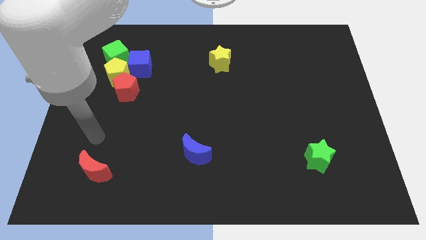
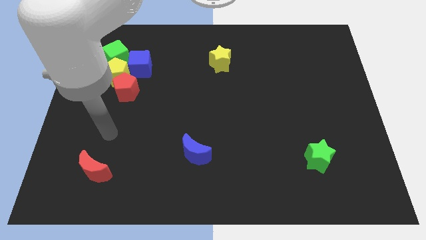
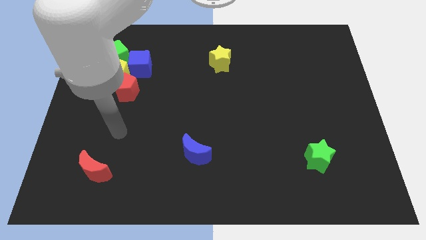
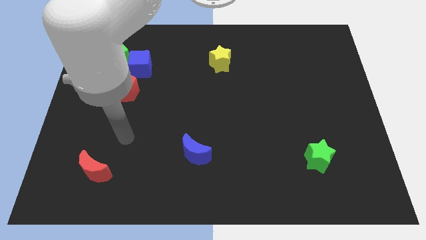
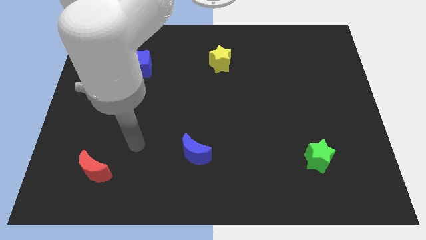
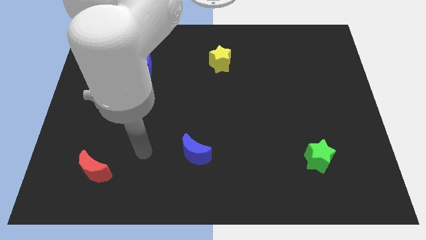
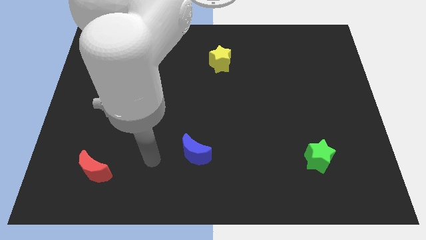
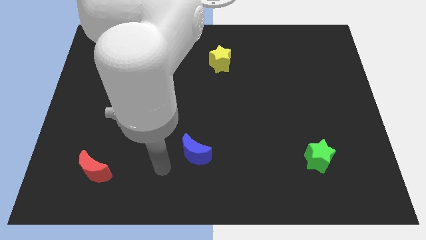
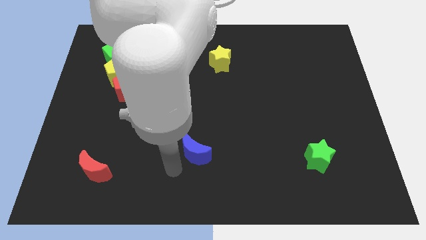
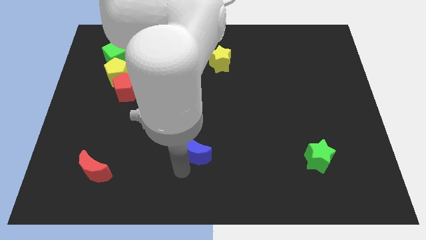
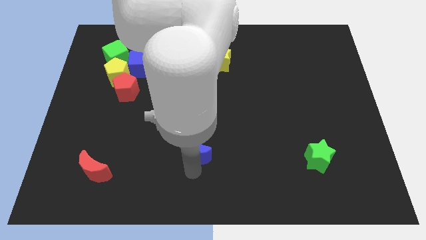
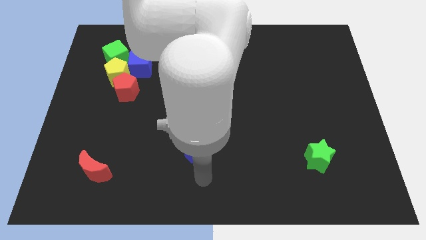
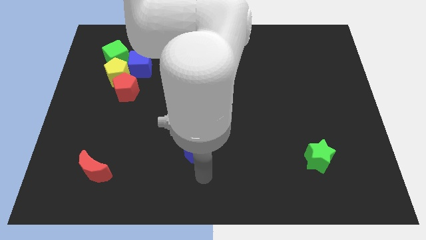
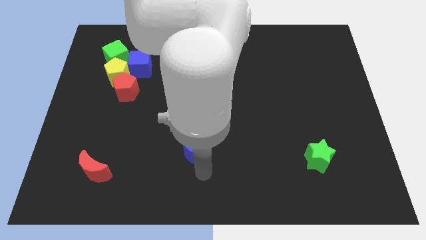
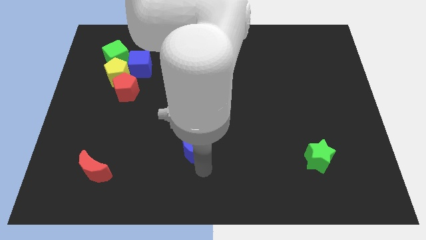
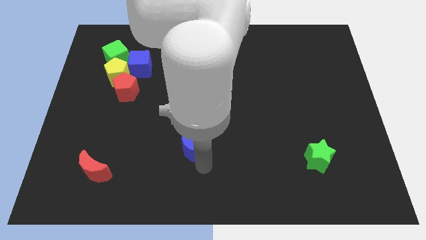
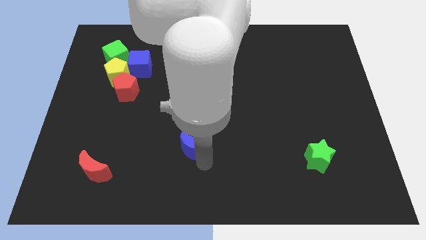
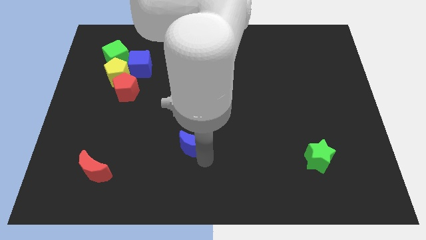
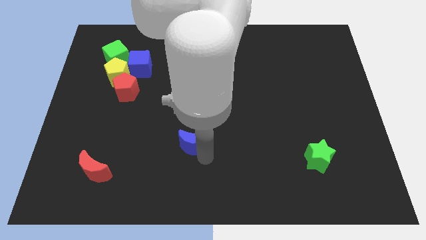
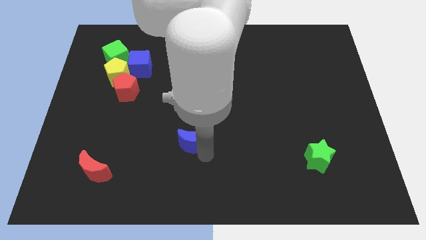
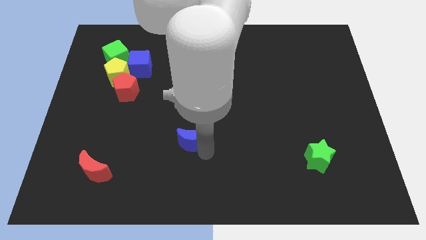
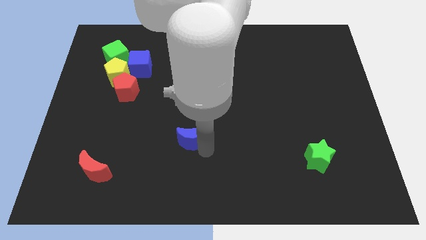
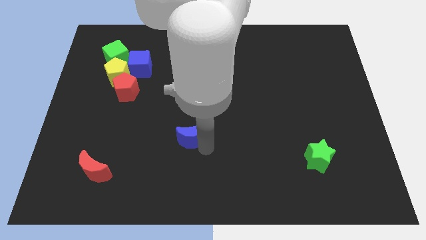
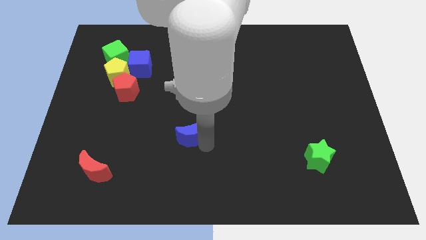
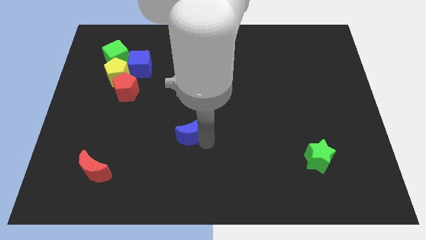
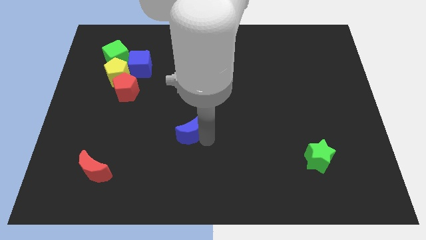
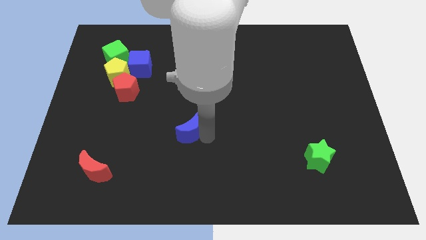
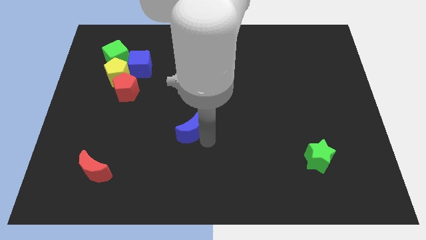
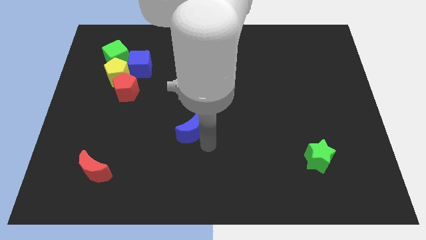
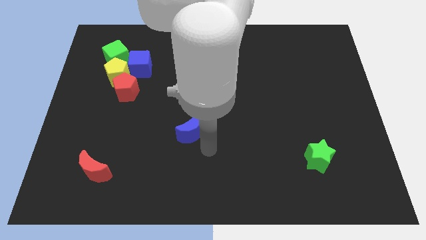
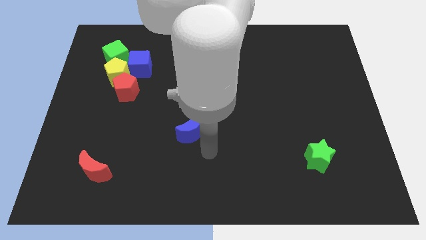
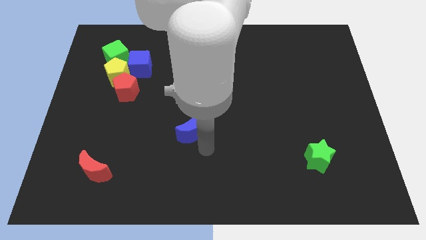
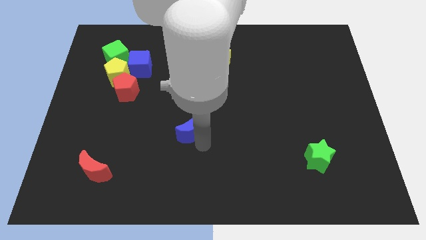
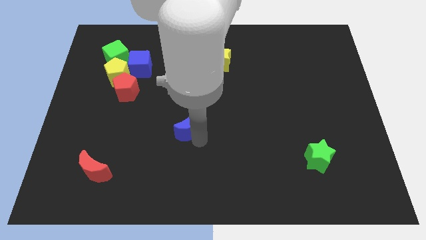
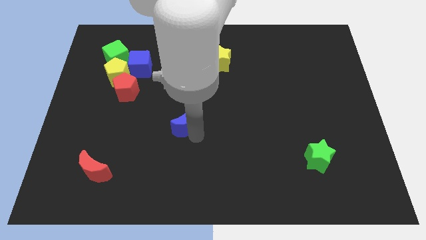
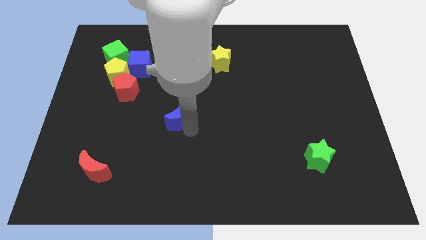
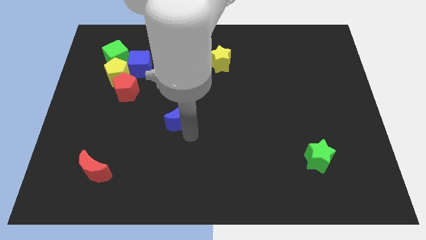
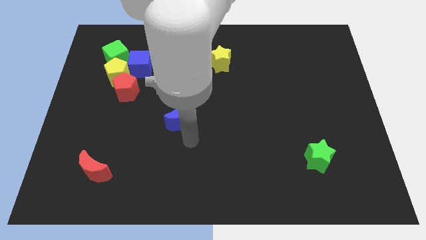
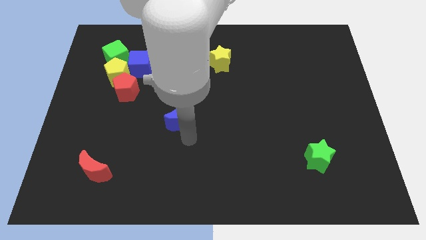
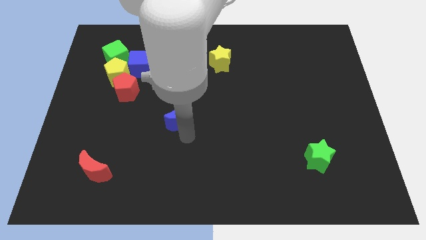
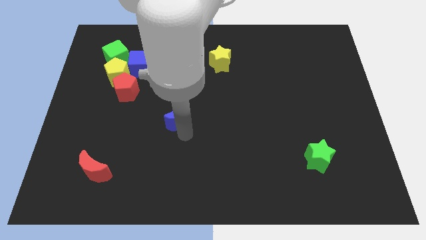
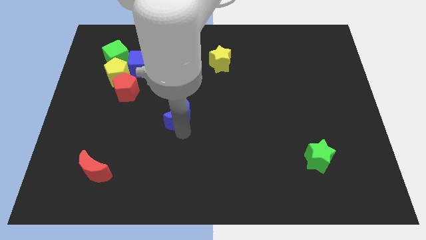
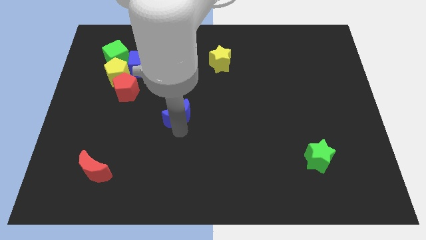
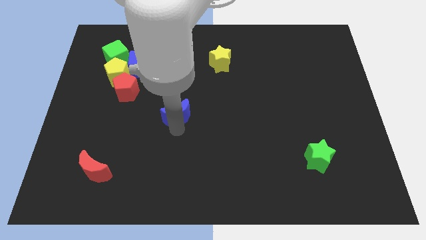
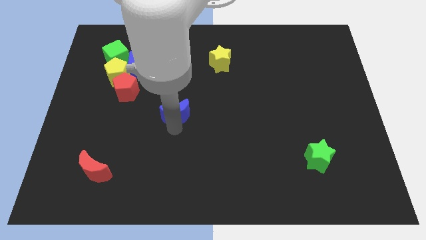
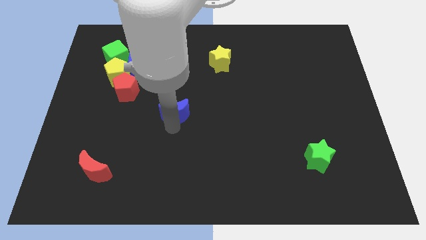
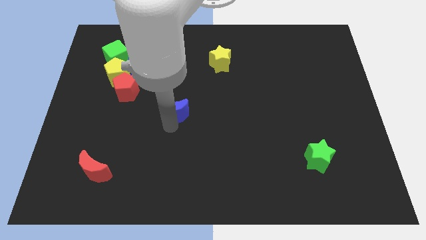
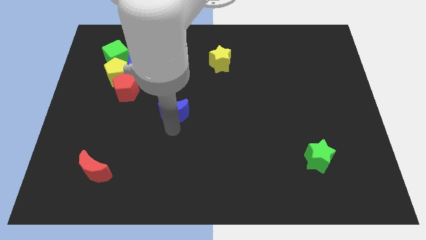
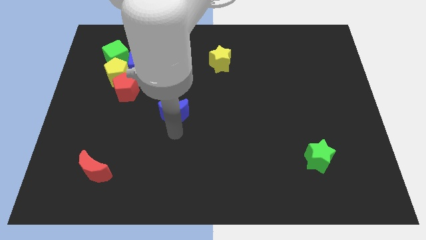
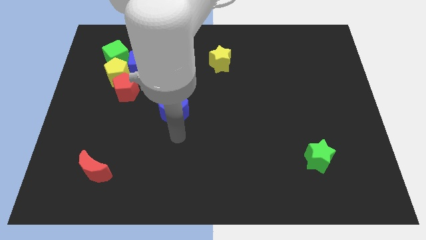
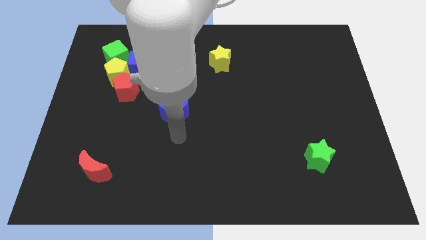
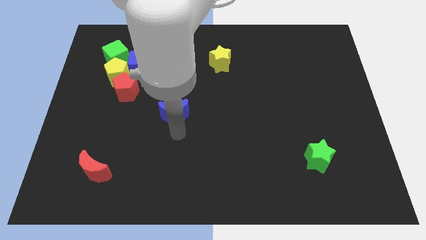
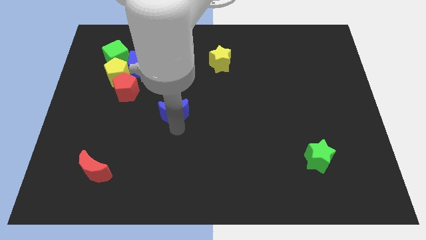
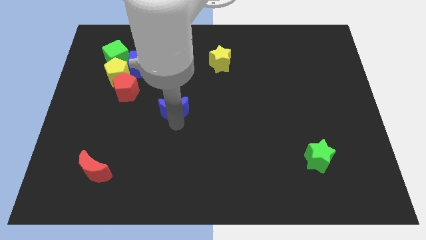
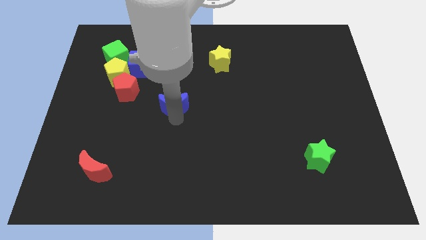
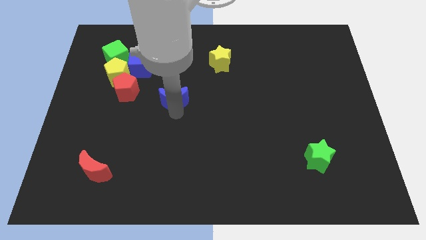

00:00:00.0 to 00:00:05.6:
put the blue moon to the right of the red pentagon

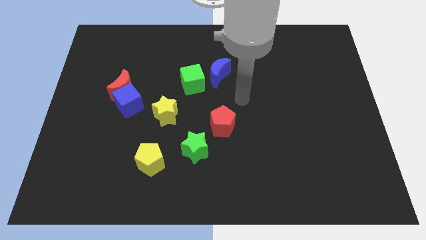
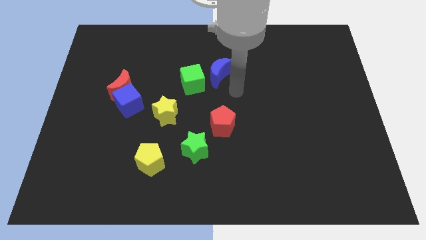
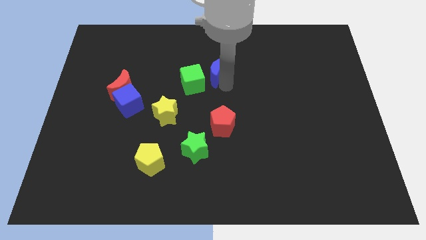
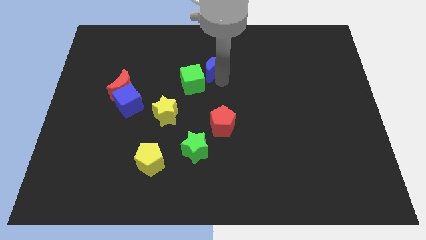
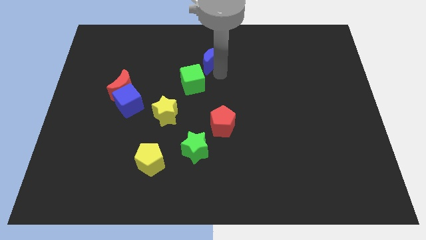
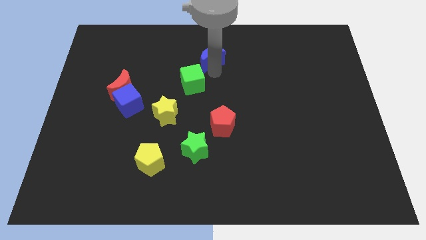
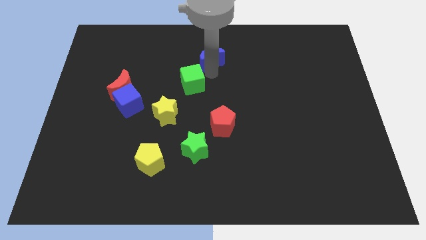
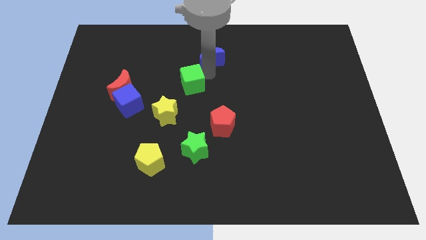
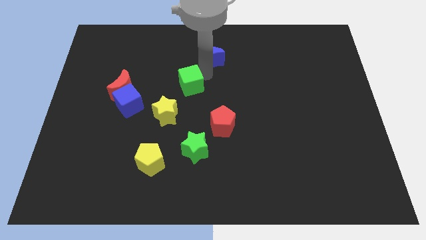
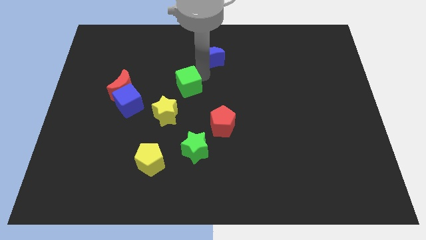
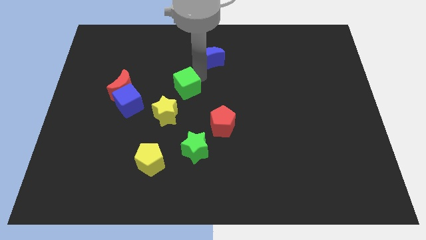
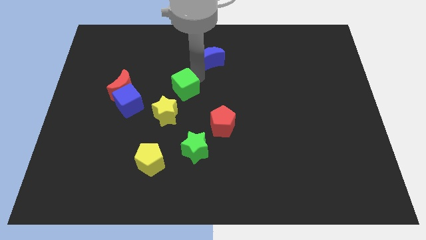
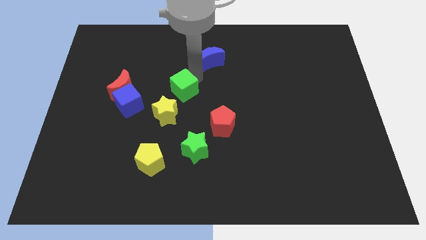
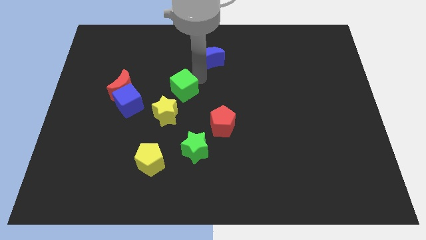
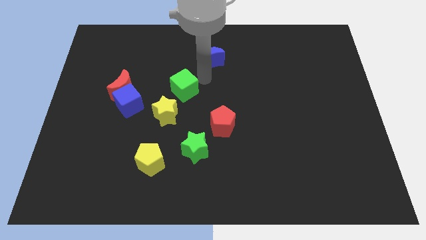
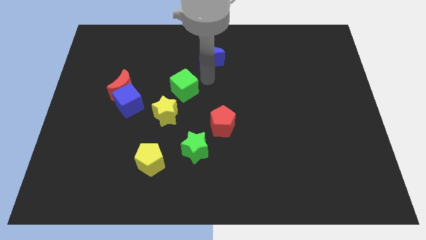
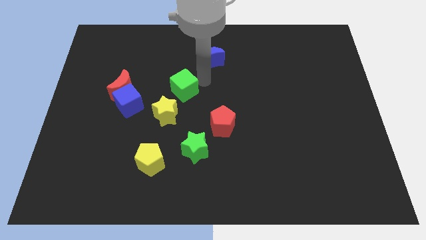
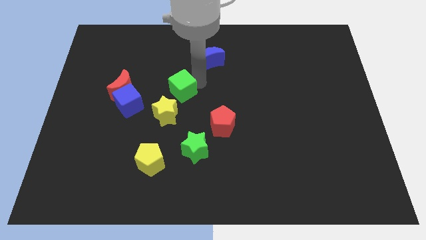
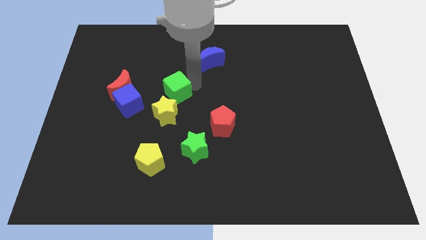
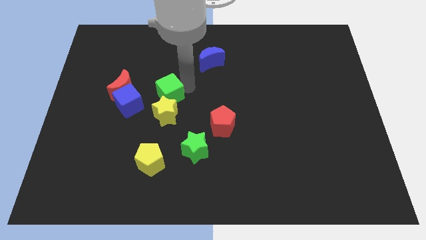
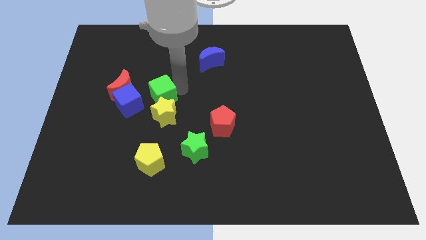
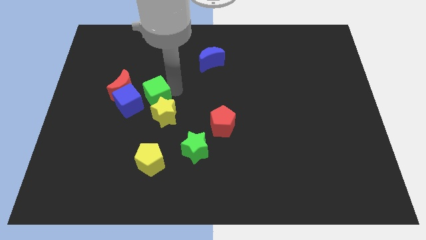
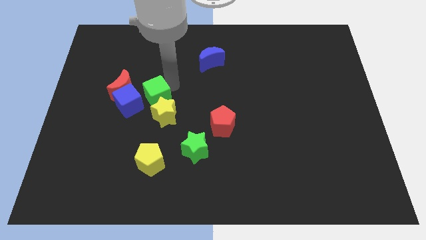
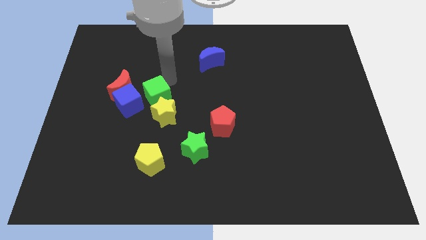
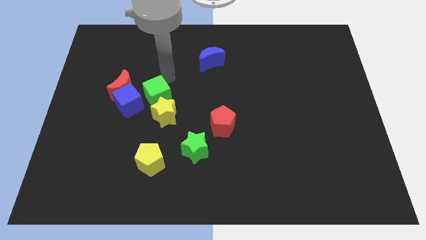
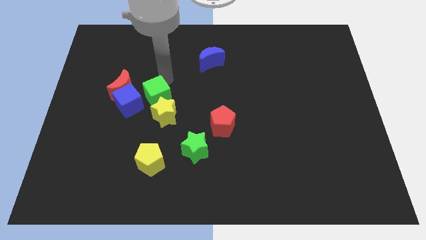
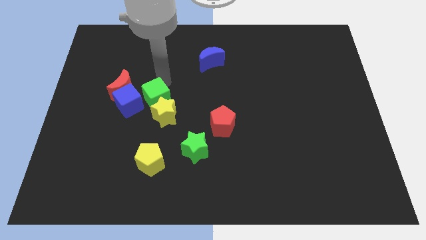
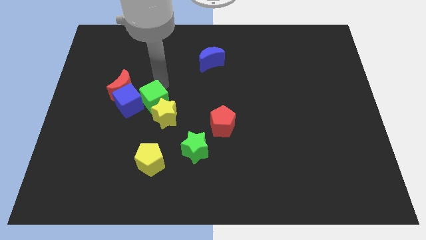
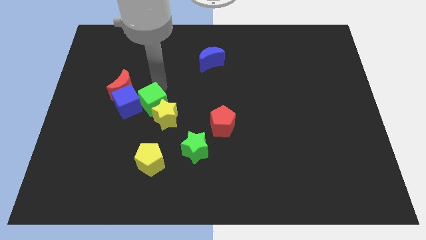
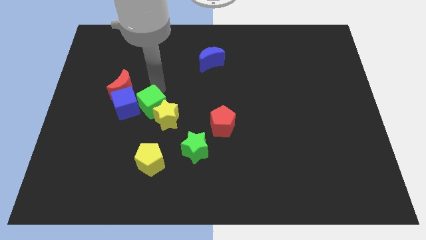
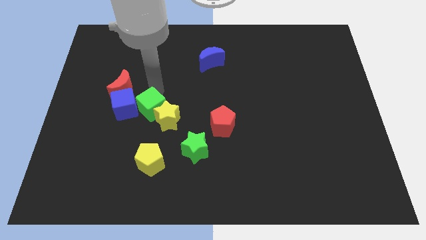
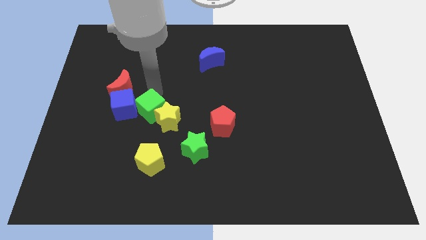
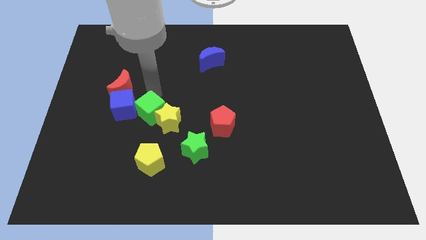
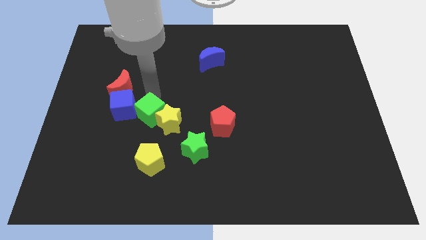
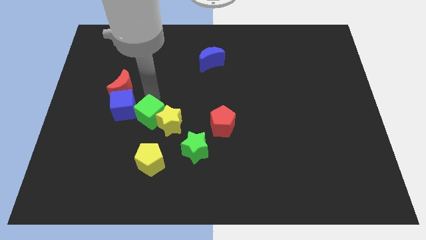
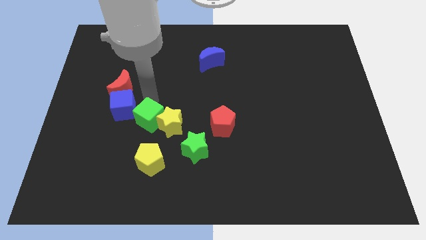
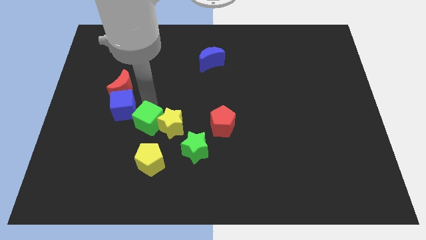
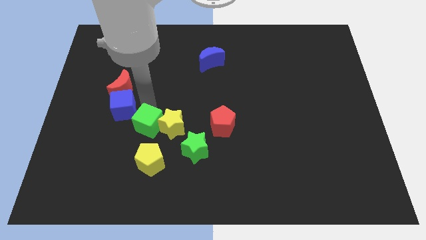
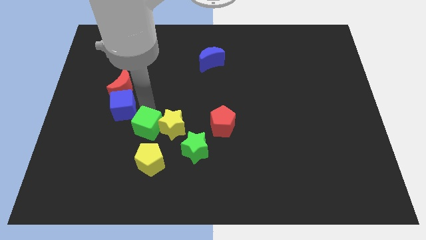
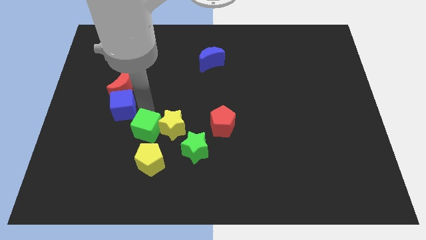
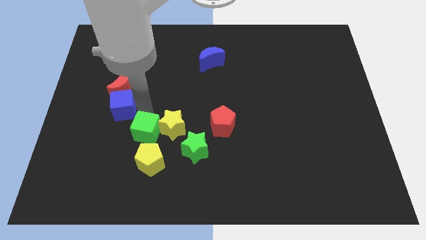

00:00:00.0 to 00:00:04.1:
move the green cube left of the green star
